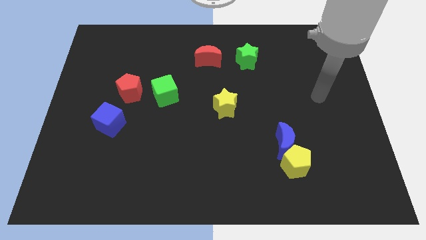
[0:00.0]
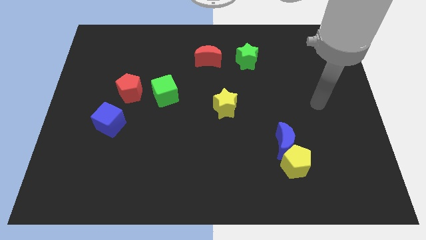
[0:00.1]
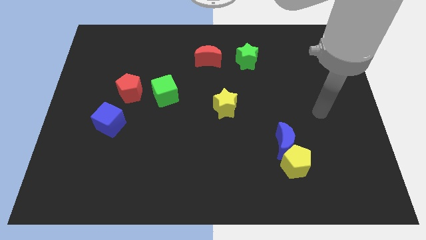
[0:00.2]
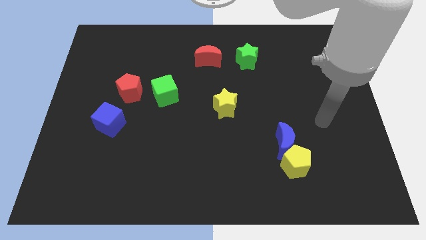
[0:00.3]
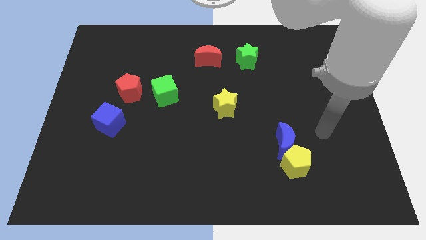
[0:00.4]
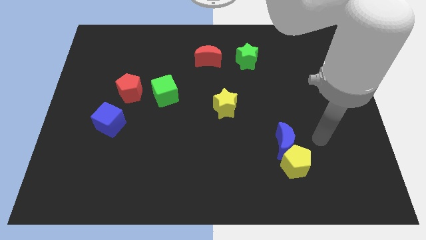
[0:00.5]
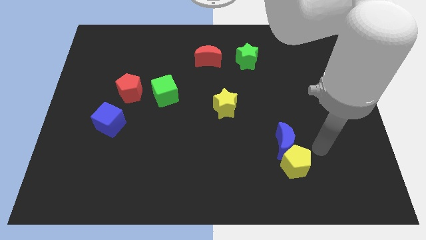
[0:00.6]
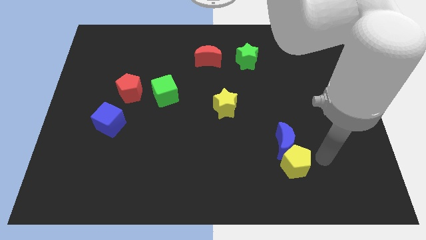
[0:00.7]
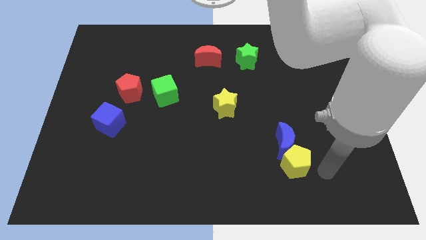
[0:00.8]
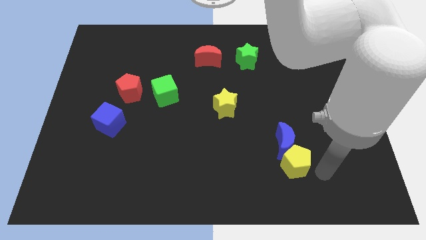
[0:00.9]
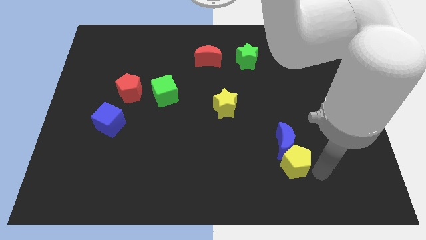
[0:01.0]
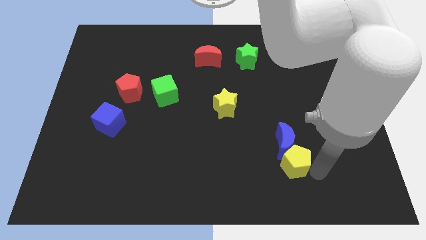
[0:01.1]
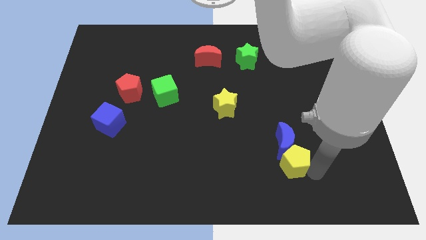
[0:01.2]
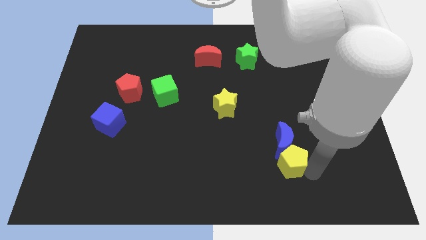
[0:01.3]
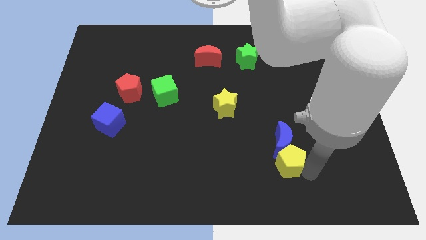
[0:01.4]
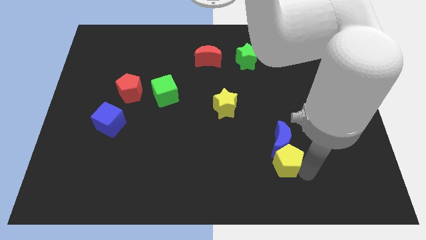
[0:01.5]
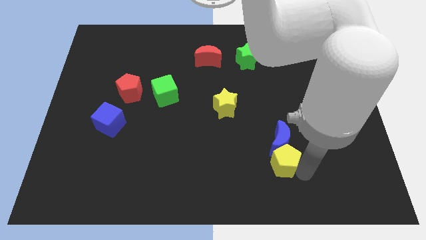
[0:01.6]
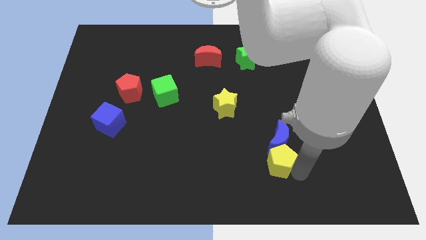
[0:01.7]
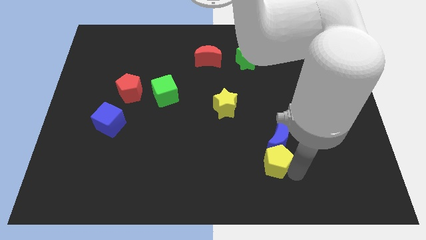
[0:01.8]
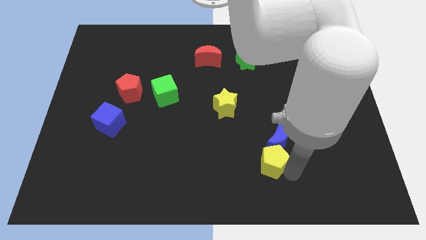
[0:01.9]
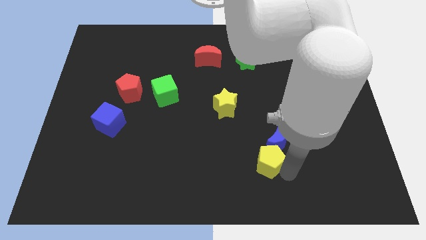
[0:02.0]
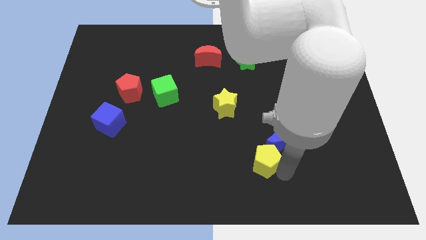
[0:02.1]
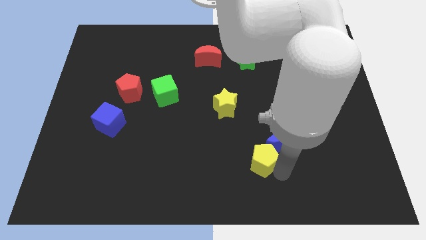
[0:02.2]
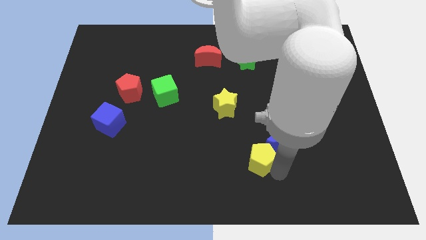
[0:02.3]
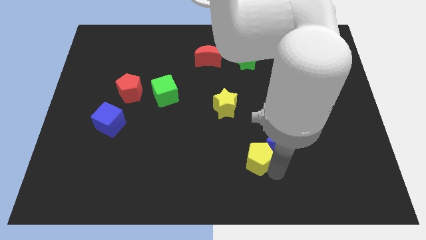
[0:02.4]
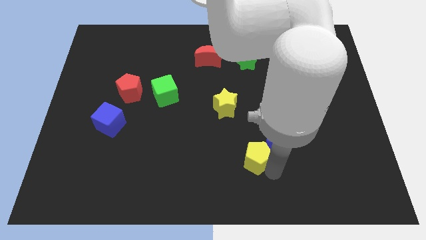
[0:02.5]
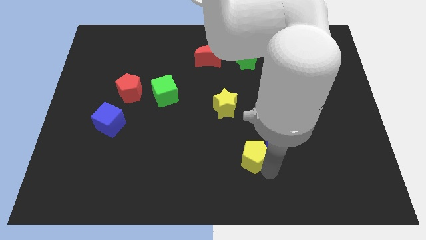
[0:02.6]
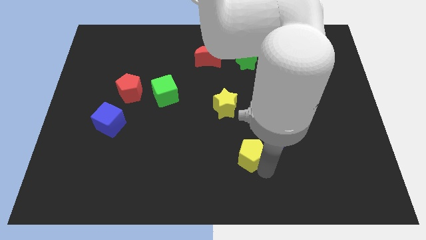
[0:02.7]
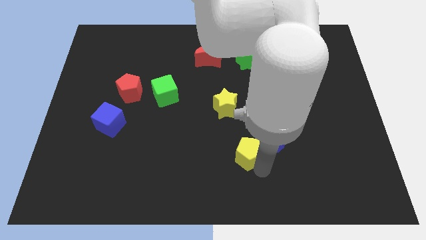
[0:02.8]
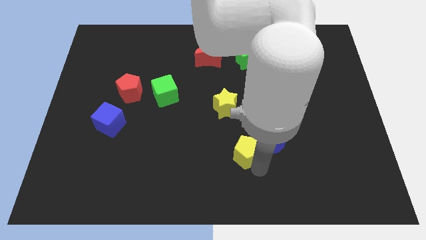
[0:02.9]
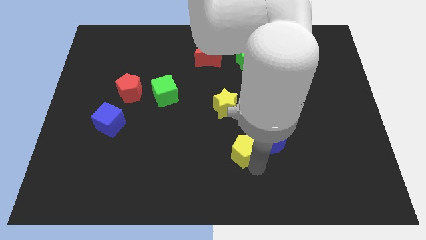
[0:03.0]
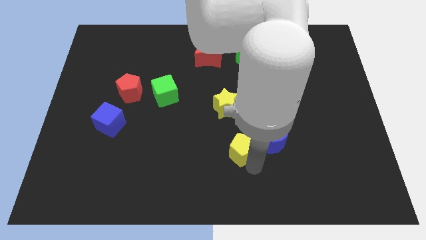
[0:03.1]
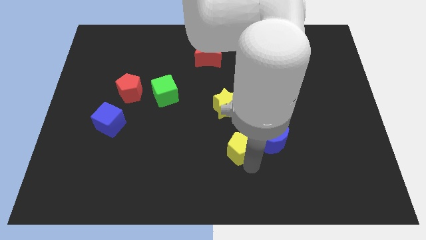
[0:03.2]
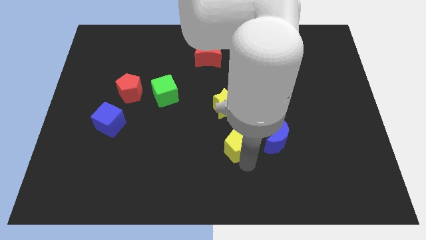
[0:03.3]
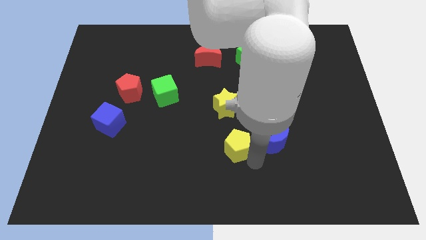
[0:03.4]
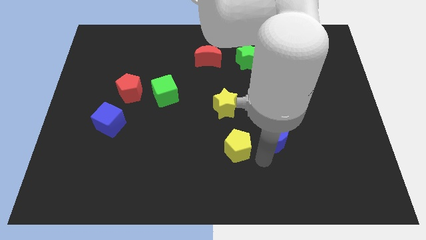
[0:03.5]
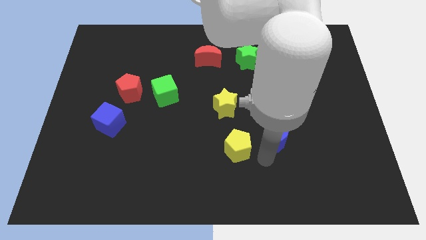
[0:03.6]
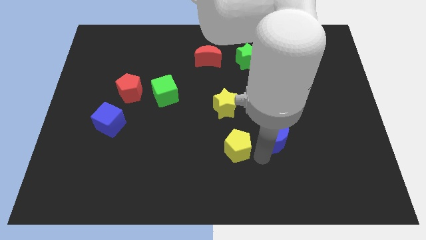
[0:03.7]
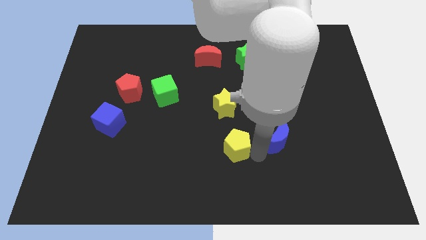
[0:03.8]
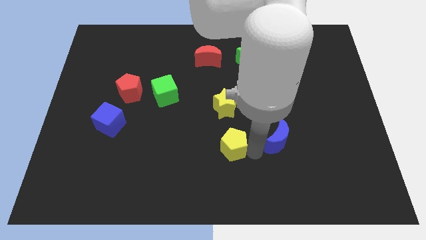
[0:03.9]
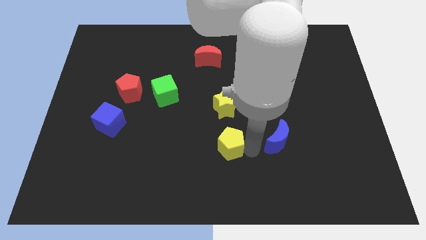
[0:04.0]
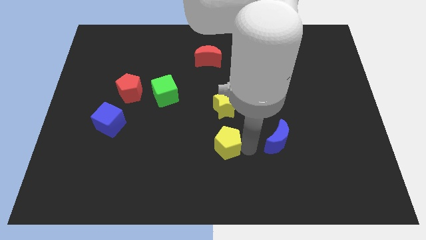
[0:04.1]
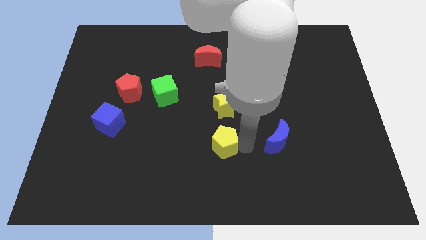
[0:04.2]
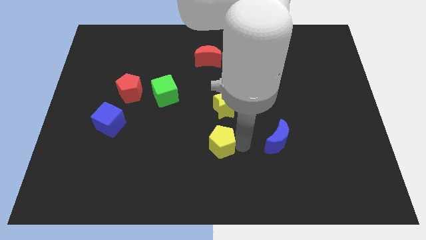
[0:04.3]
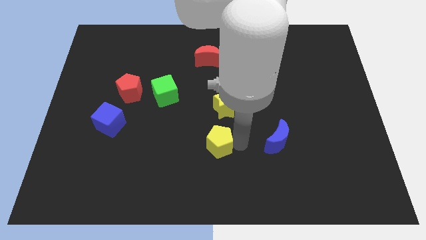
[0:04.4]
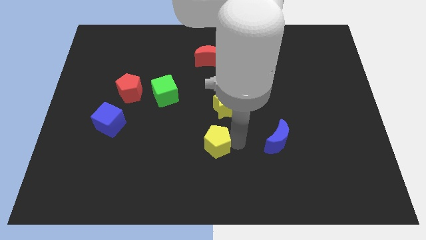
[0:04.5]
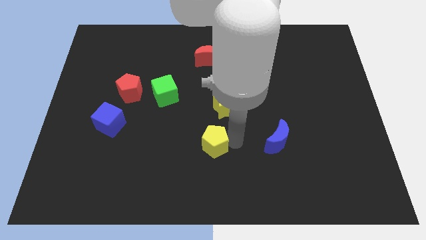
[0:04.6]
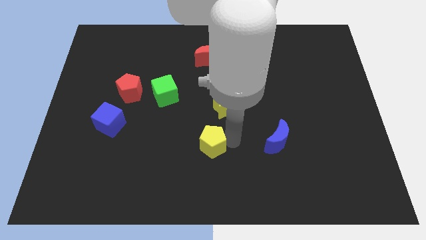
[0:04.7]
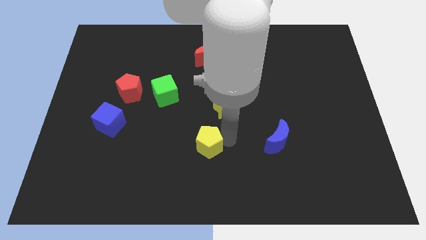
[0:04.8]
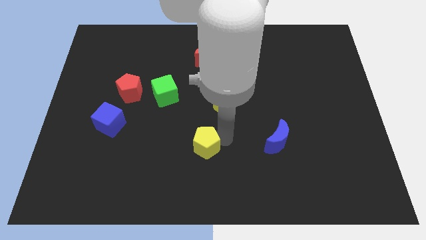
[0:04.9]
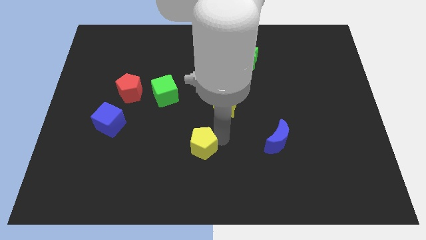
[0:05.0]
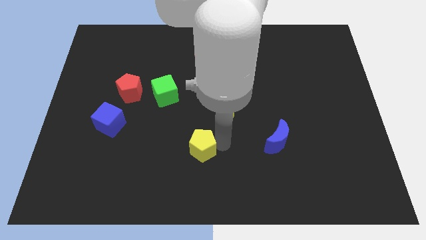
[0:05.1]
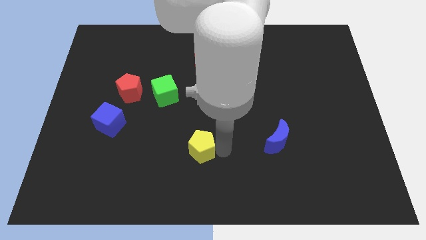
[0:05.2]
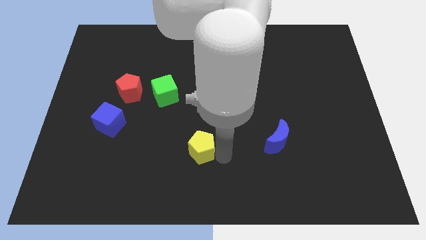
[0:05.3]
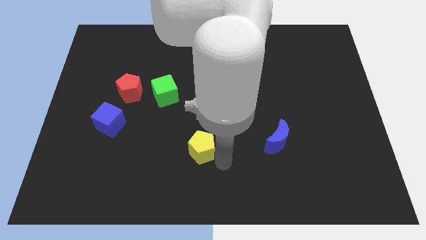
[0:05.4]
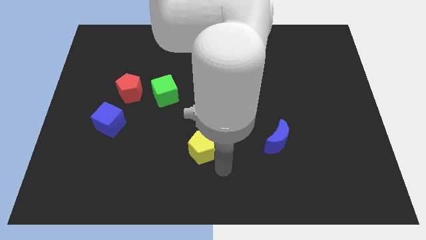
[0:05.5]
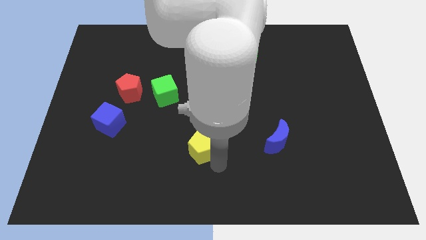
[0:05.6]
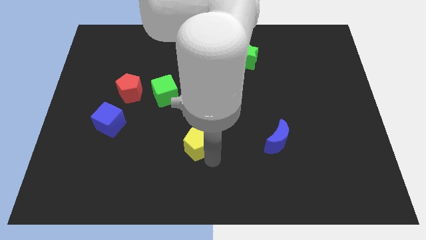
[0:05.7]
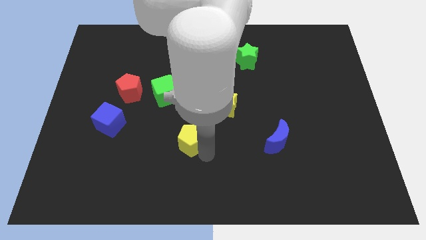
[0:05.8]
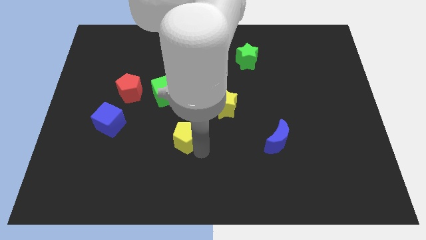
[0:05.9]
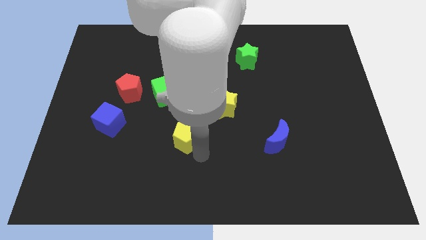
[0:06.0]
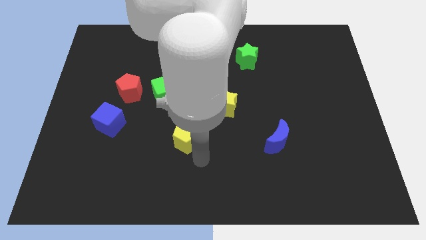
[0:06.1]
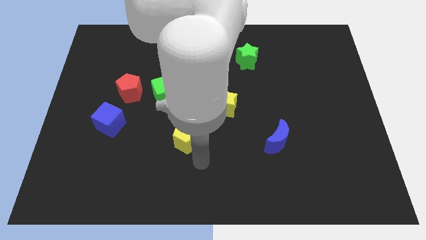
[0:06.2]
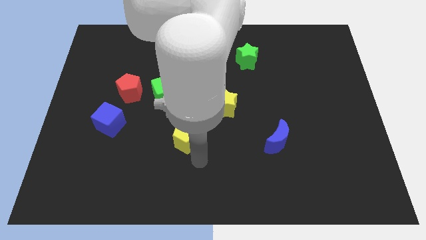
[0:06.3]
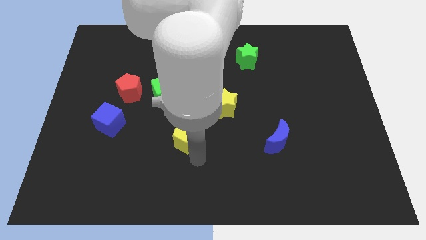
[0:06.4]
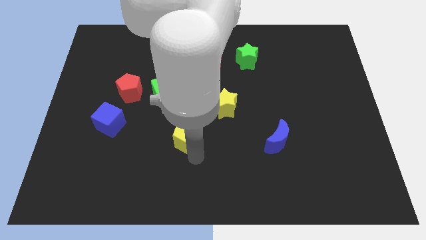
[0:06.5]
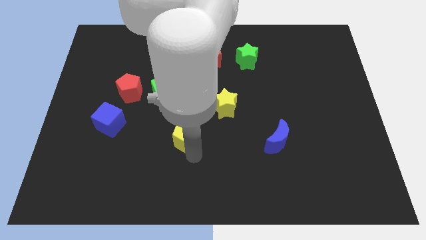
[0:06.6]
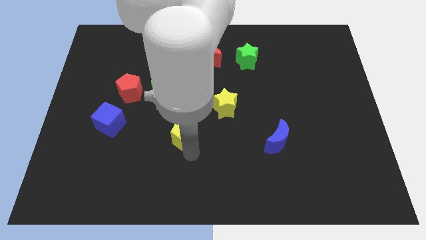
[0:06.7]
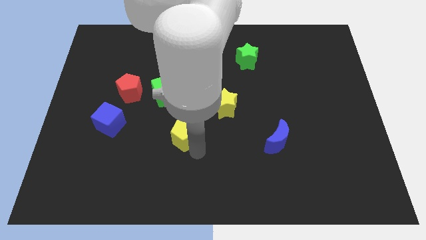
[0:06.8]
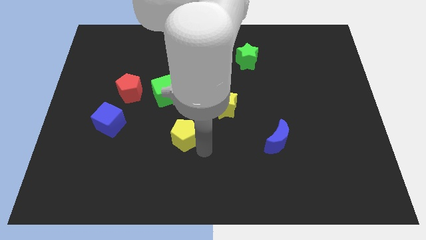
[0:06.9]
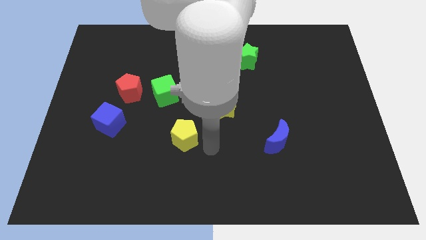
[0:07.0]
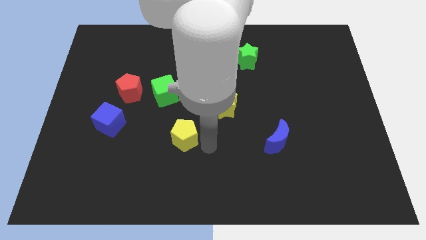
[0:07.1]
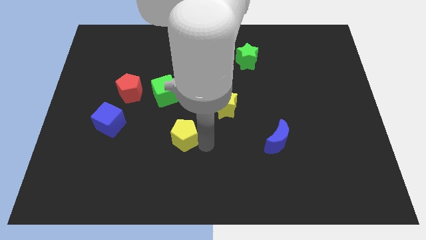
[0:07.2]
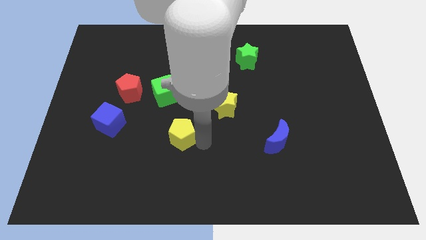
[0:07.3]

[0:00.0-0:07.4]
slide the yellow pentagon to the bottom of the green cube
